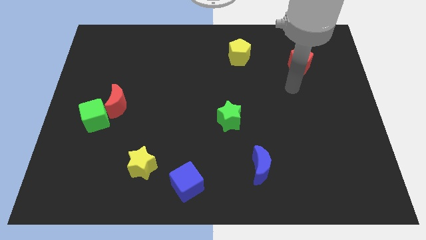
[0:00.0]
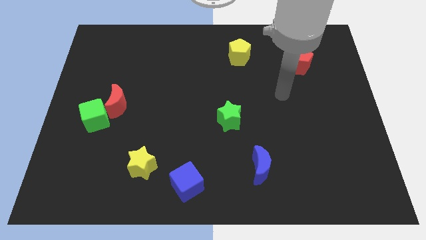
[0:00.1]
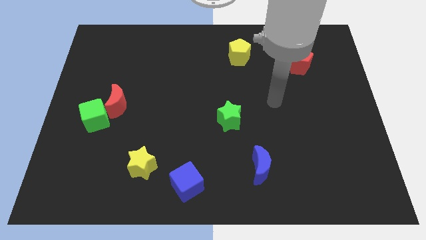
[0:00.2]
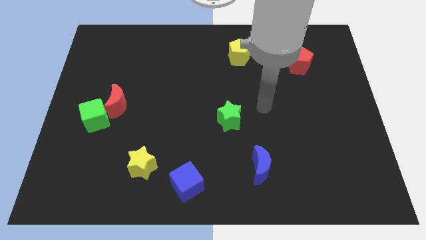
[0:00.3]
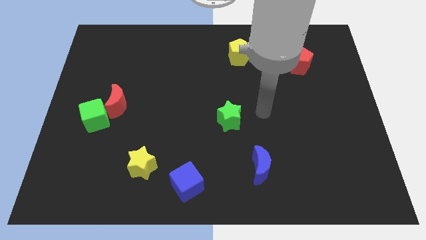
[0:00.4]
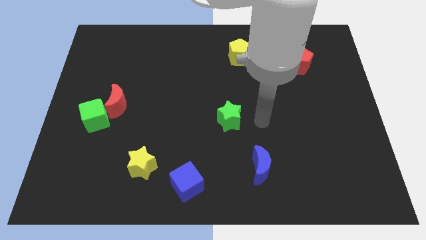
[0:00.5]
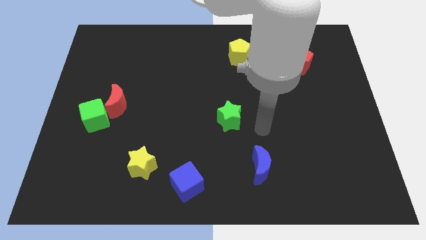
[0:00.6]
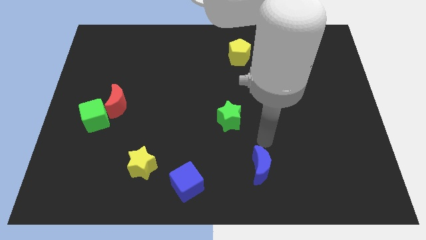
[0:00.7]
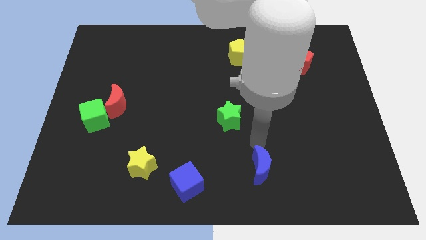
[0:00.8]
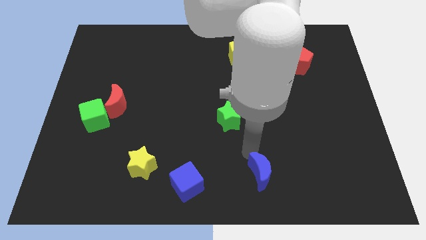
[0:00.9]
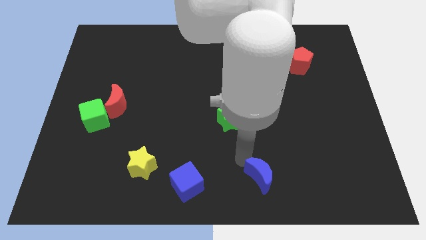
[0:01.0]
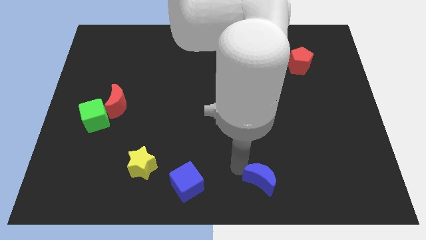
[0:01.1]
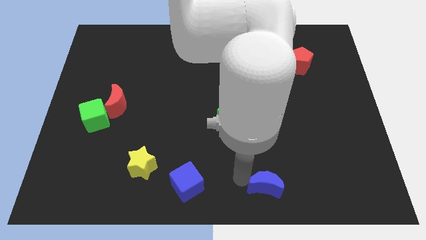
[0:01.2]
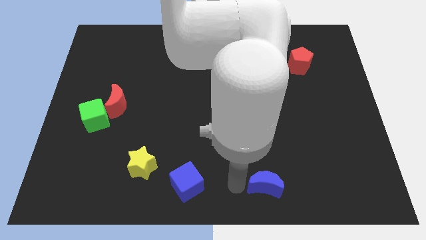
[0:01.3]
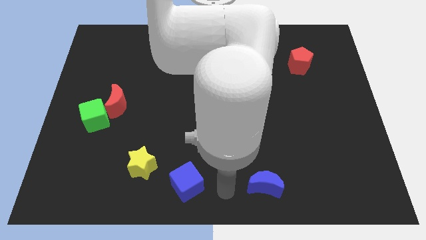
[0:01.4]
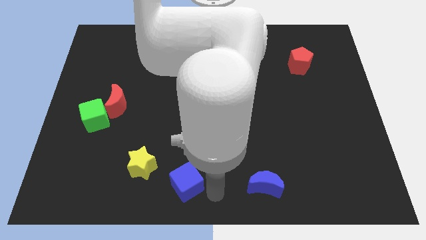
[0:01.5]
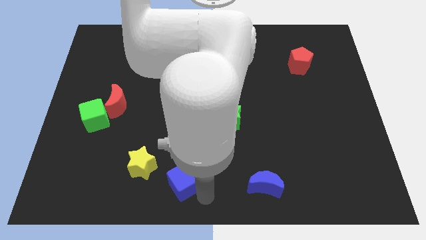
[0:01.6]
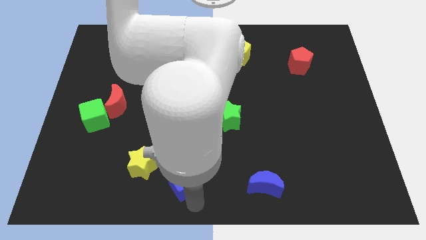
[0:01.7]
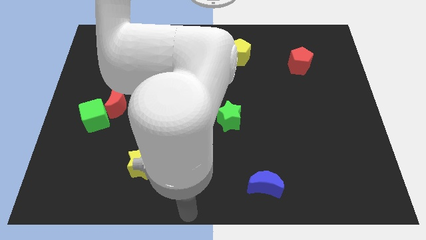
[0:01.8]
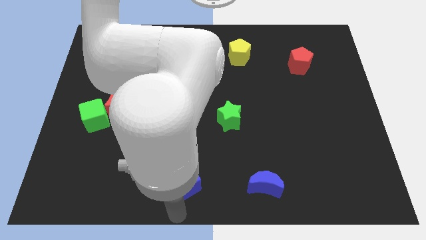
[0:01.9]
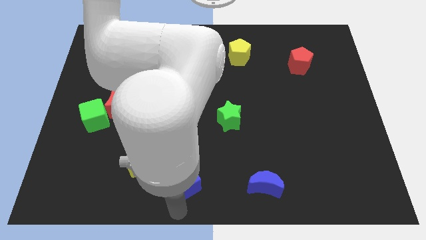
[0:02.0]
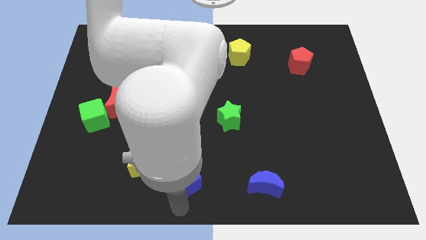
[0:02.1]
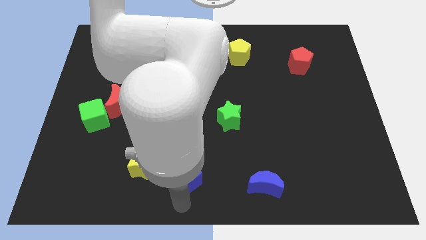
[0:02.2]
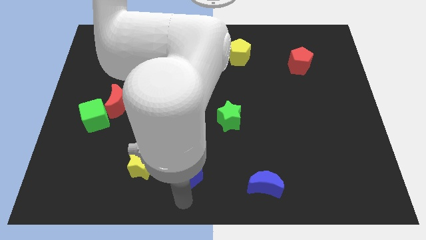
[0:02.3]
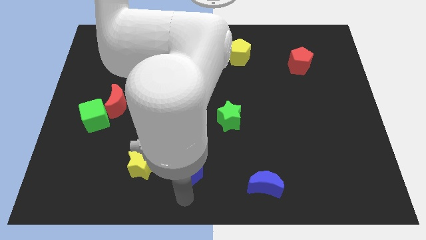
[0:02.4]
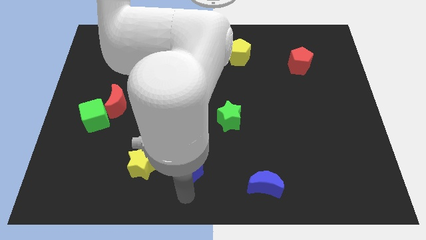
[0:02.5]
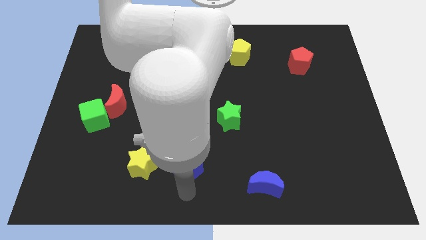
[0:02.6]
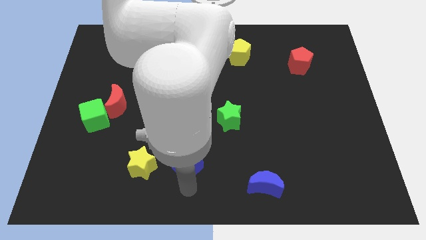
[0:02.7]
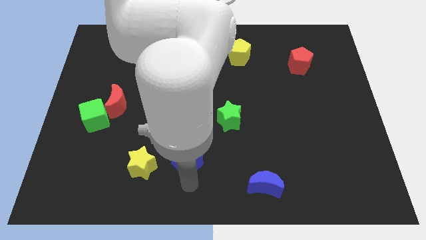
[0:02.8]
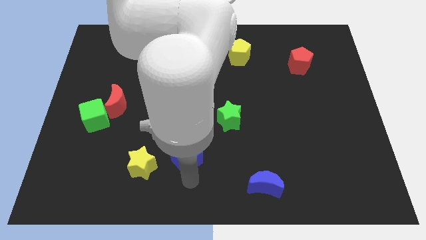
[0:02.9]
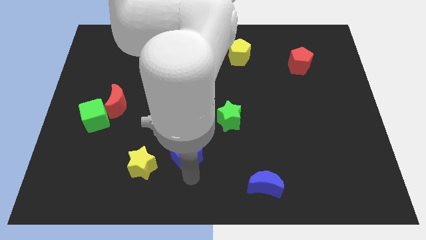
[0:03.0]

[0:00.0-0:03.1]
slightly slide the blue cube upwards

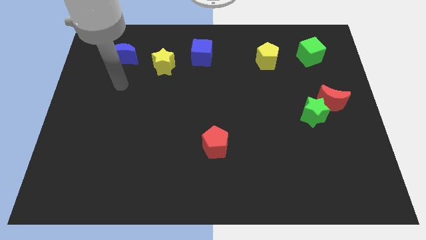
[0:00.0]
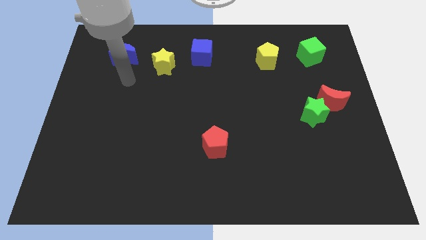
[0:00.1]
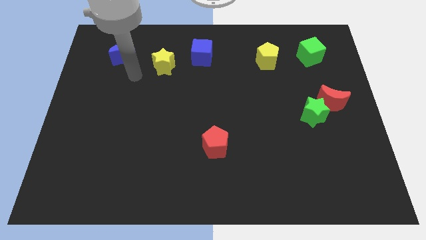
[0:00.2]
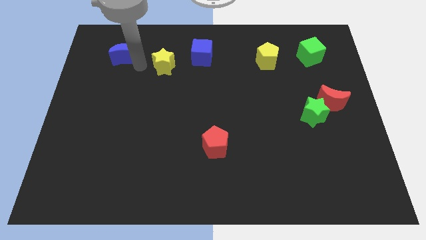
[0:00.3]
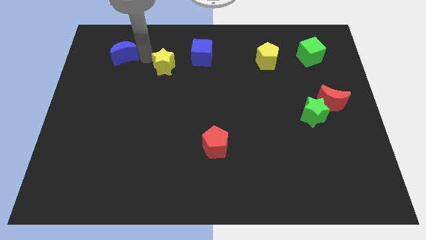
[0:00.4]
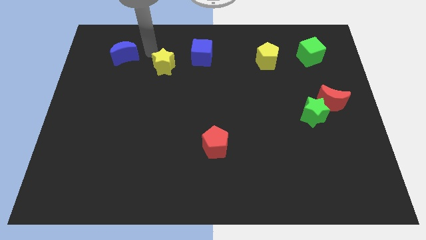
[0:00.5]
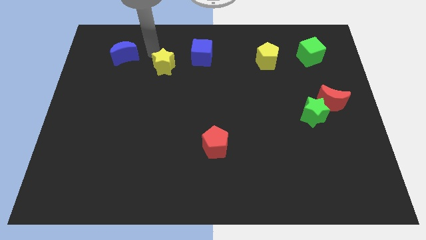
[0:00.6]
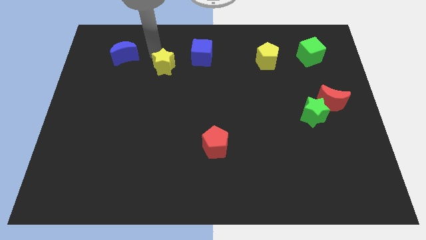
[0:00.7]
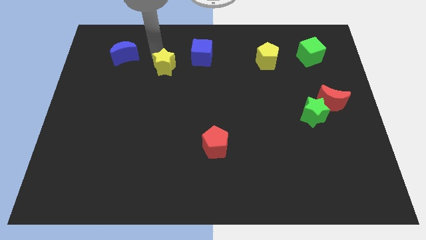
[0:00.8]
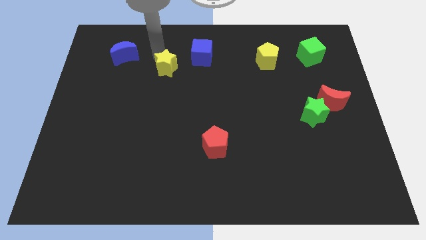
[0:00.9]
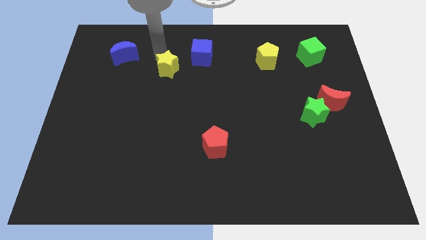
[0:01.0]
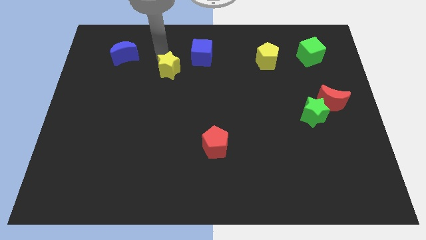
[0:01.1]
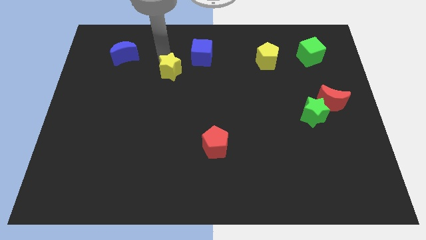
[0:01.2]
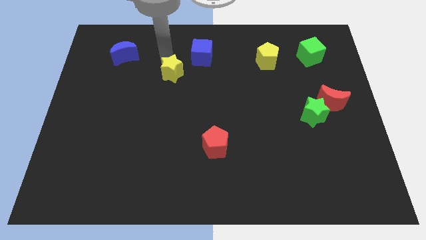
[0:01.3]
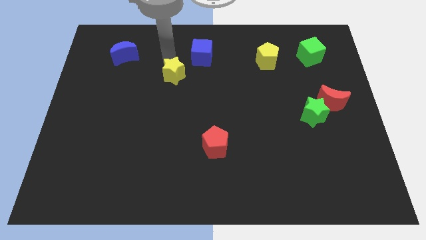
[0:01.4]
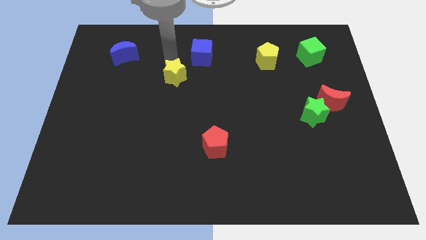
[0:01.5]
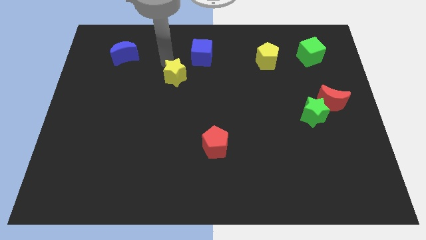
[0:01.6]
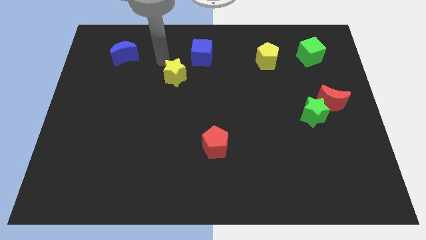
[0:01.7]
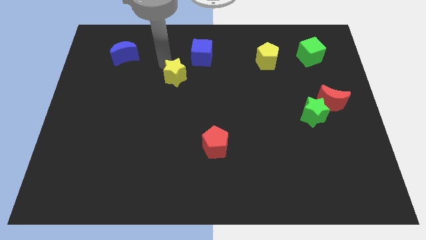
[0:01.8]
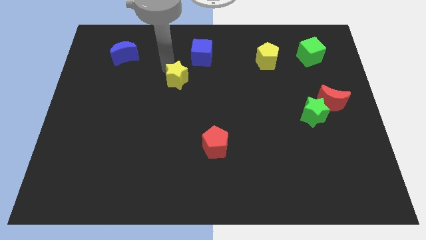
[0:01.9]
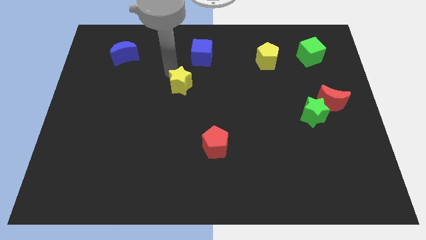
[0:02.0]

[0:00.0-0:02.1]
slightly push the yellow star downwards and then to the right

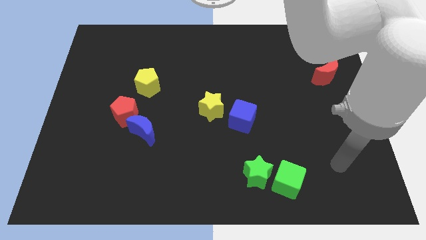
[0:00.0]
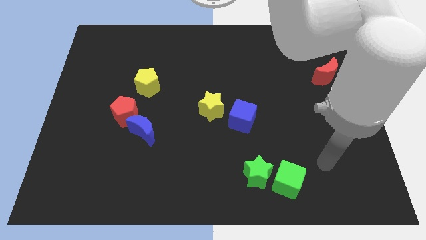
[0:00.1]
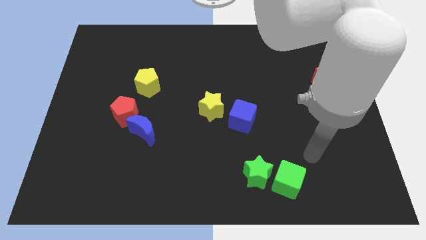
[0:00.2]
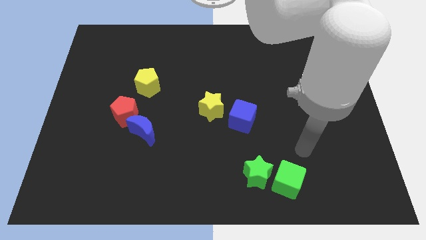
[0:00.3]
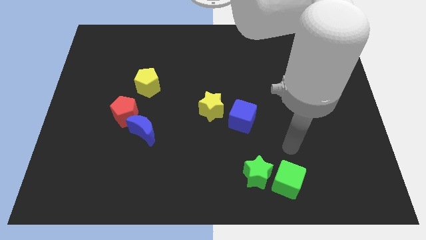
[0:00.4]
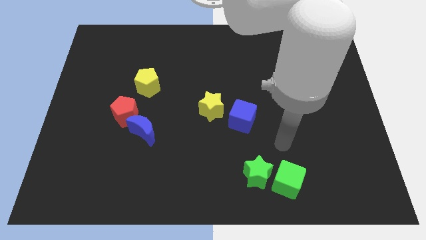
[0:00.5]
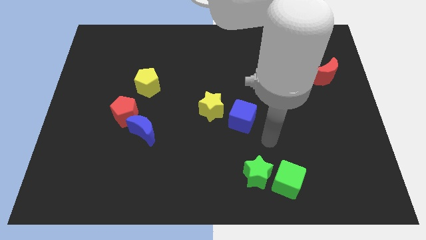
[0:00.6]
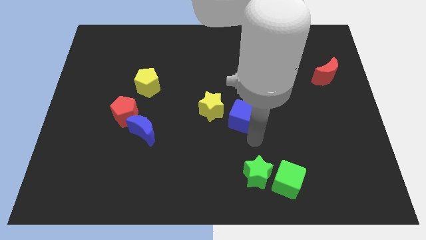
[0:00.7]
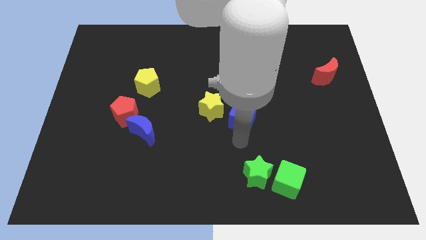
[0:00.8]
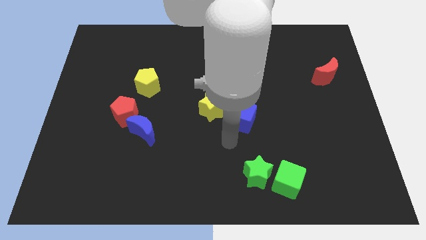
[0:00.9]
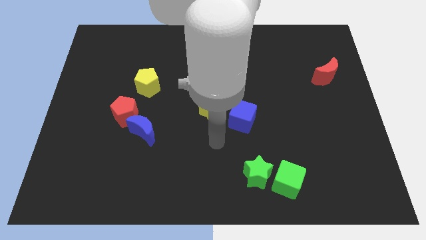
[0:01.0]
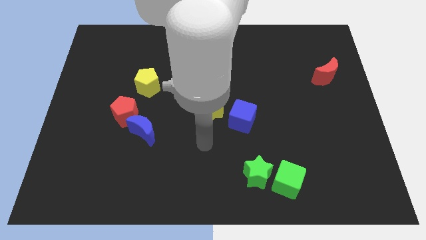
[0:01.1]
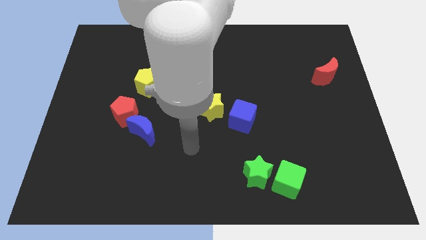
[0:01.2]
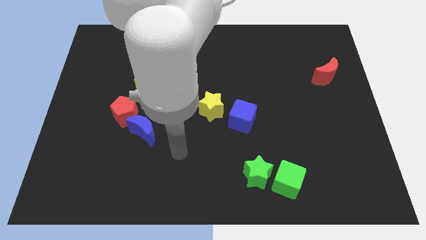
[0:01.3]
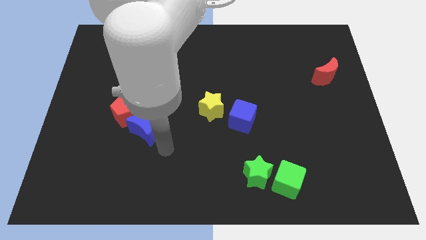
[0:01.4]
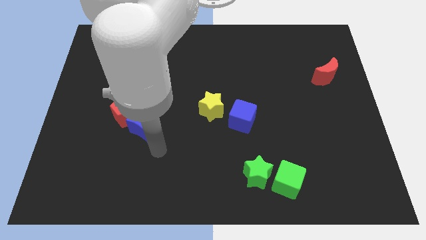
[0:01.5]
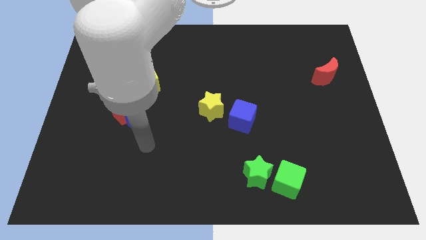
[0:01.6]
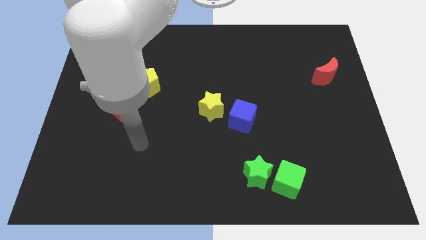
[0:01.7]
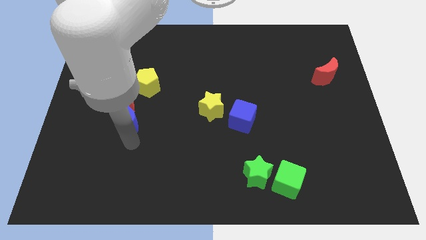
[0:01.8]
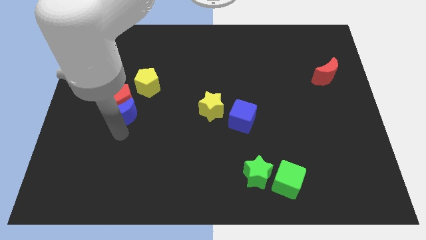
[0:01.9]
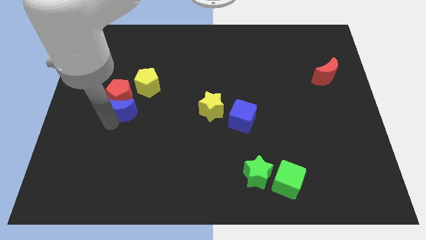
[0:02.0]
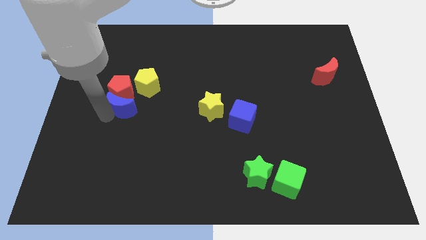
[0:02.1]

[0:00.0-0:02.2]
push the red pentagon a little up

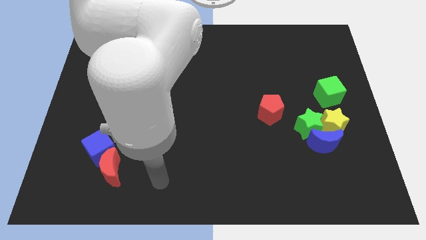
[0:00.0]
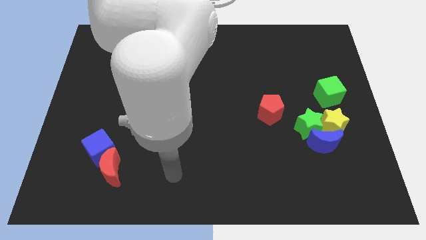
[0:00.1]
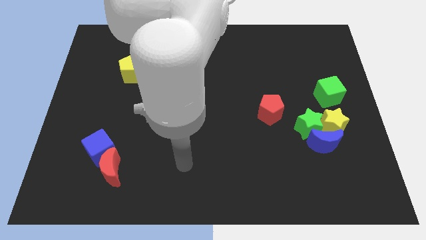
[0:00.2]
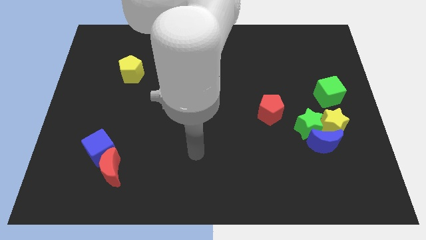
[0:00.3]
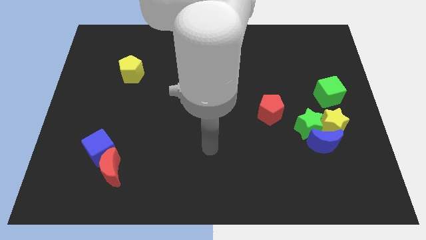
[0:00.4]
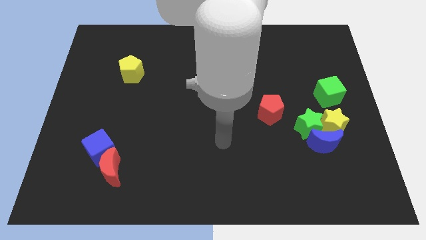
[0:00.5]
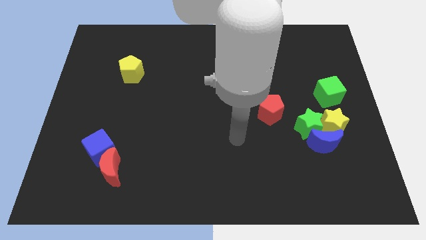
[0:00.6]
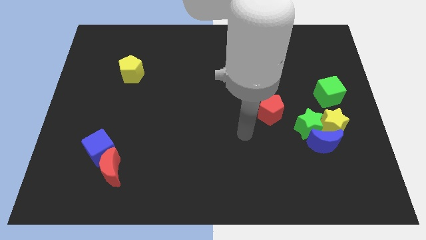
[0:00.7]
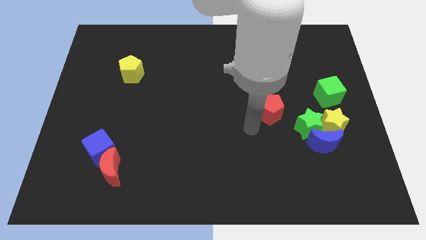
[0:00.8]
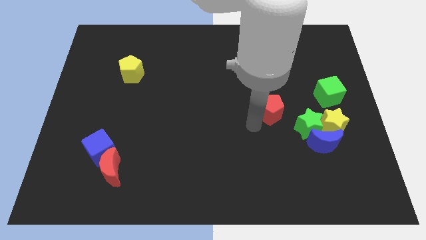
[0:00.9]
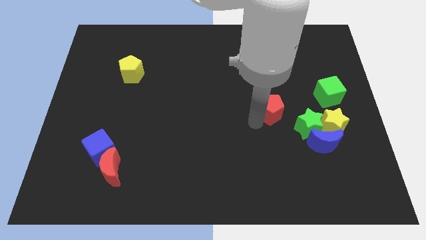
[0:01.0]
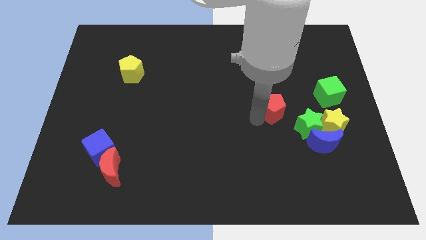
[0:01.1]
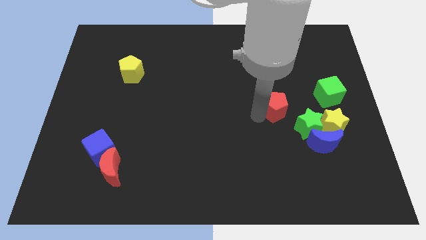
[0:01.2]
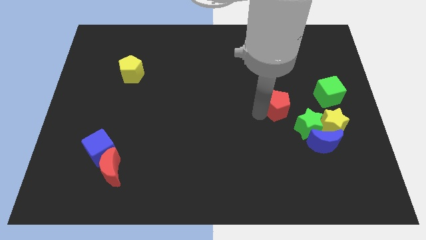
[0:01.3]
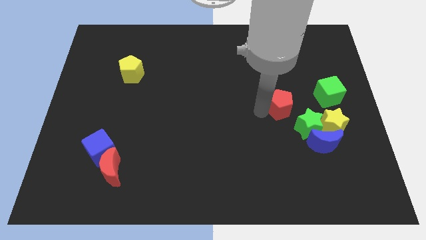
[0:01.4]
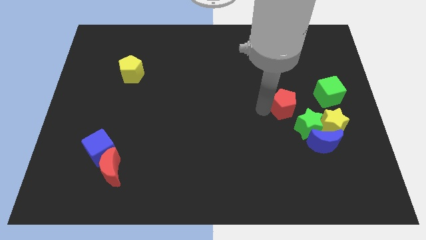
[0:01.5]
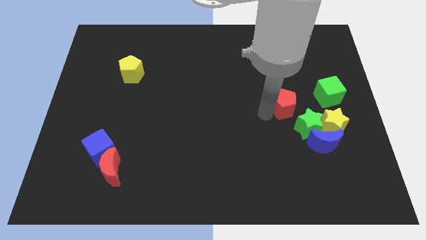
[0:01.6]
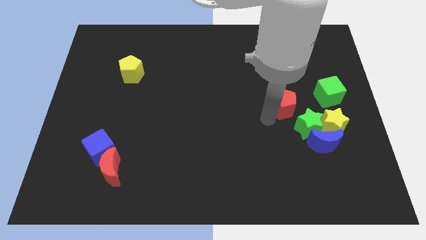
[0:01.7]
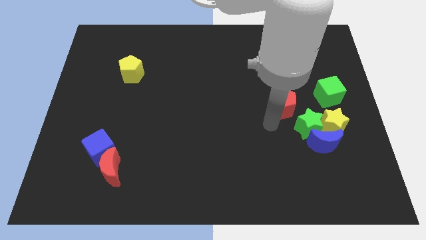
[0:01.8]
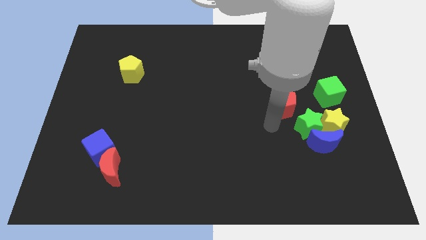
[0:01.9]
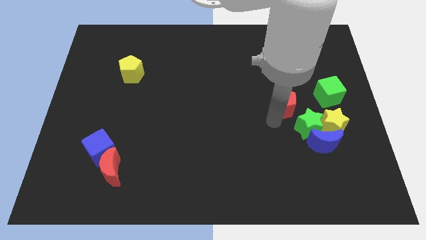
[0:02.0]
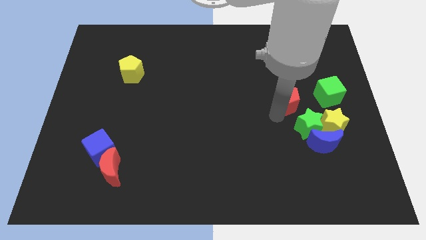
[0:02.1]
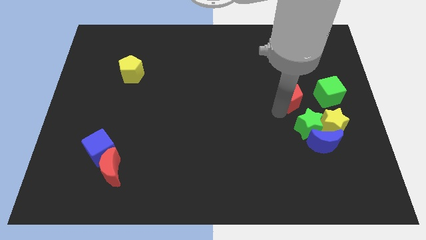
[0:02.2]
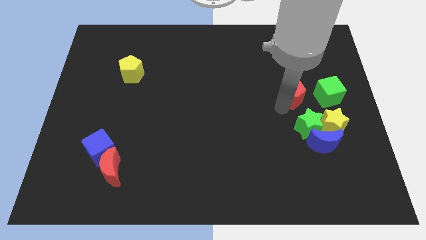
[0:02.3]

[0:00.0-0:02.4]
push the red pentagon upwards and right diagonally somewhat
